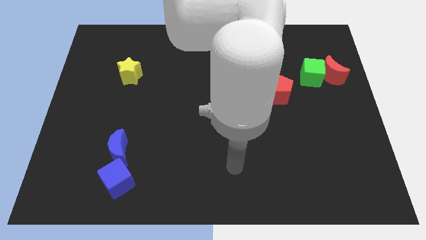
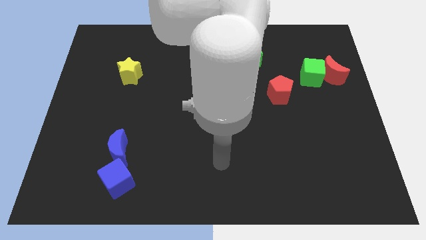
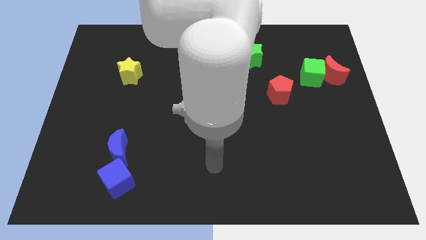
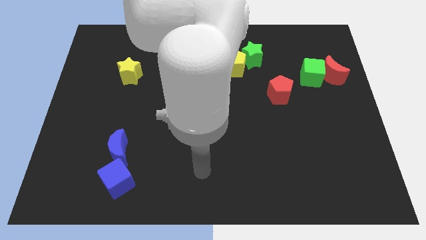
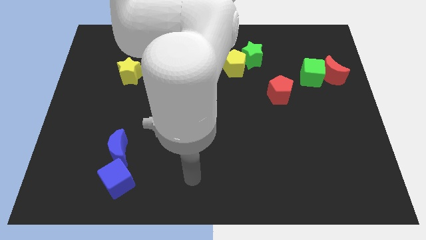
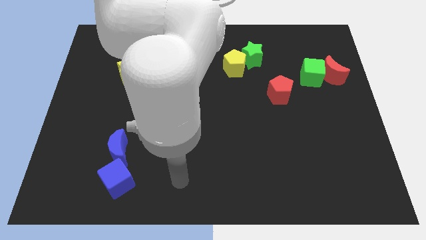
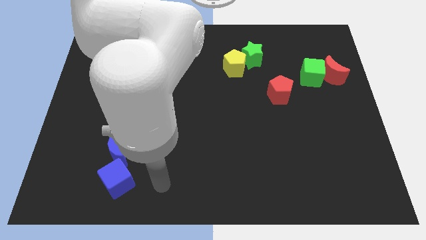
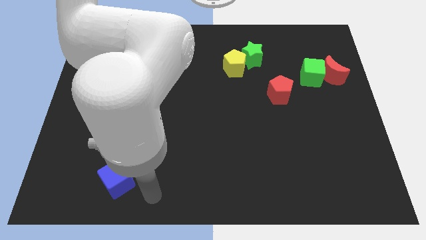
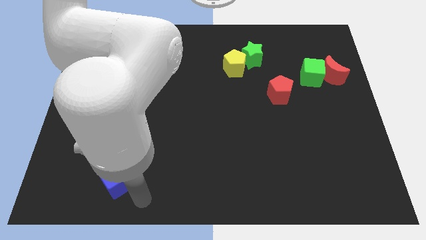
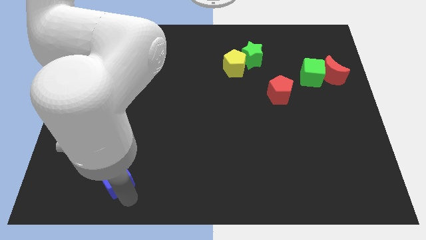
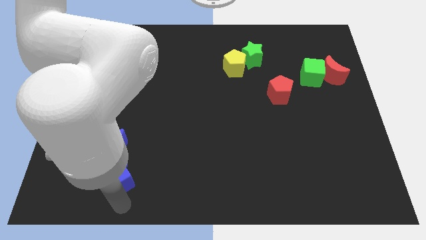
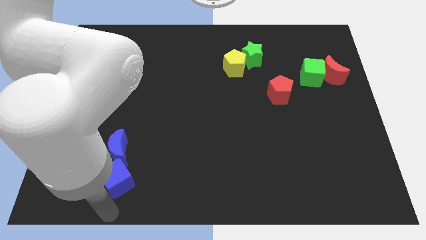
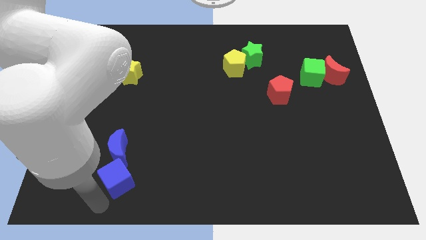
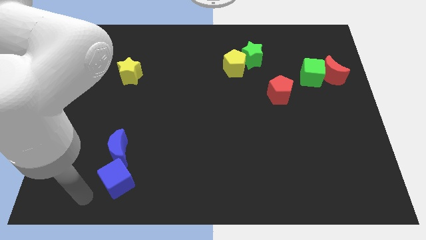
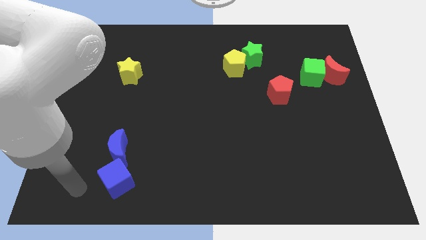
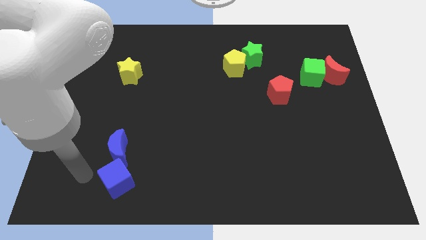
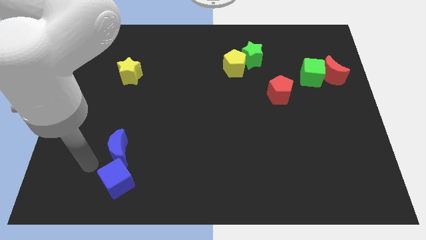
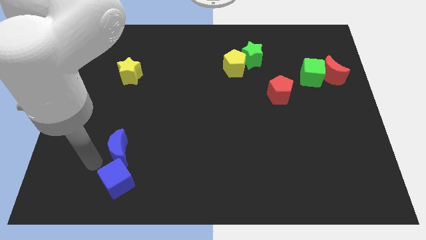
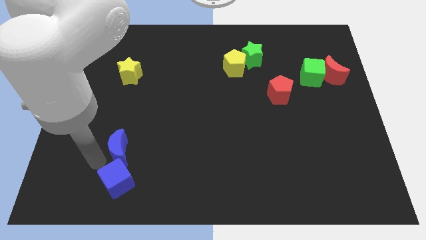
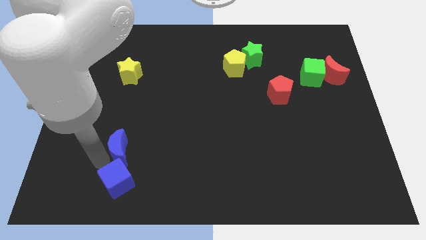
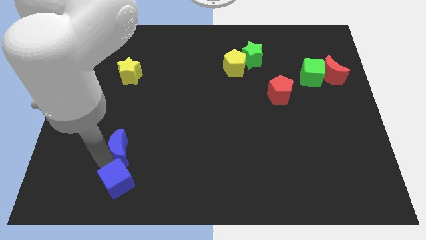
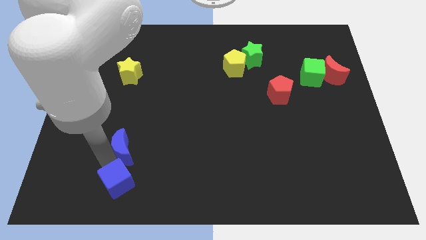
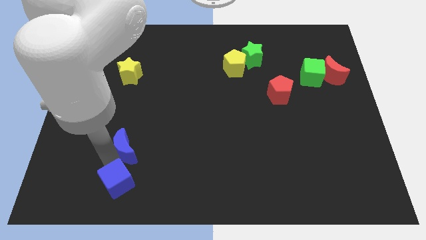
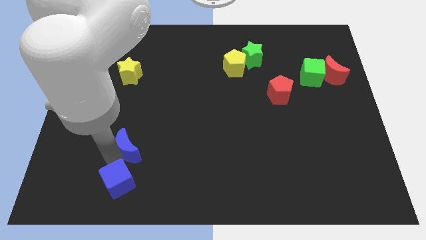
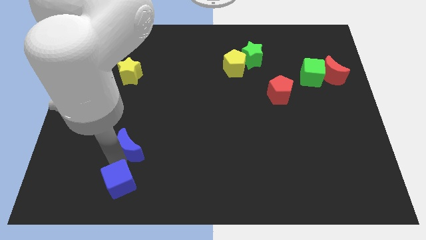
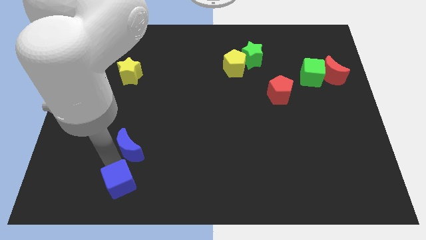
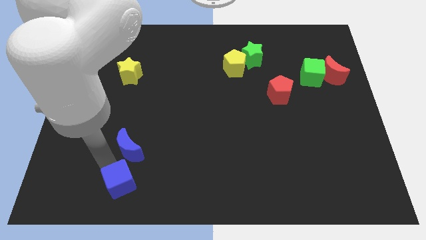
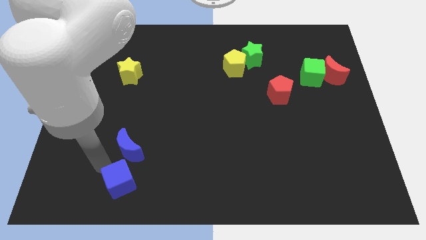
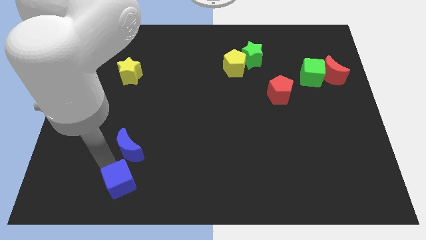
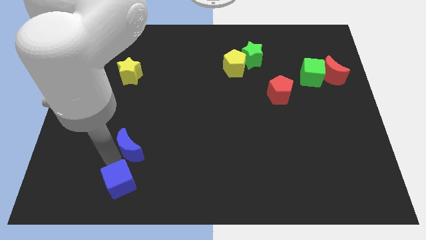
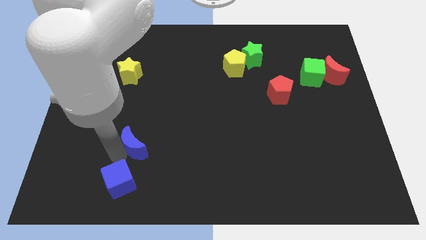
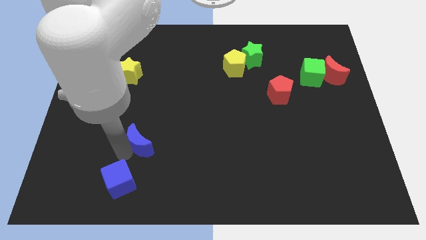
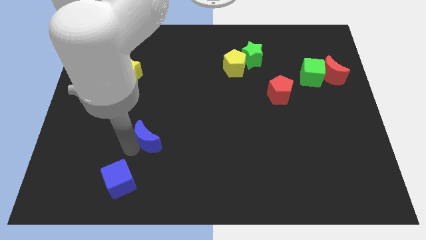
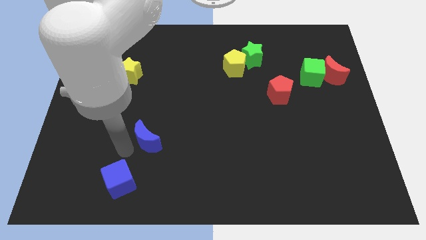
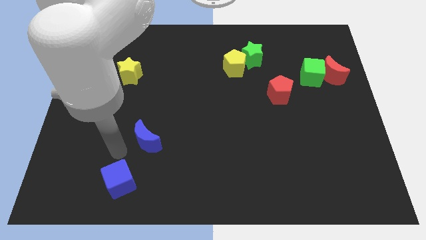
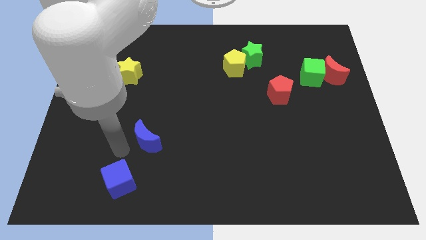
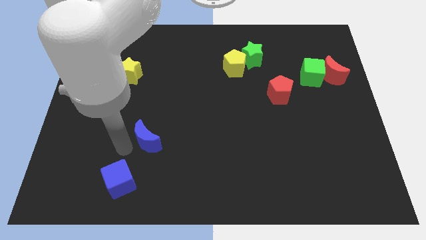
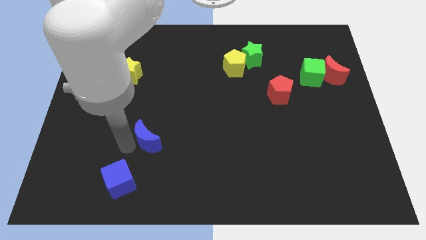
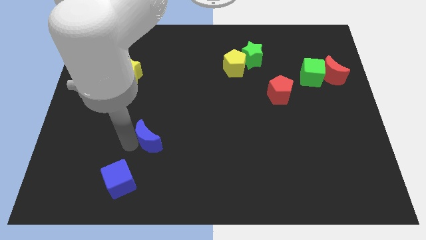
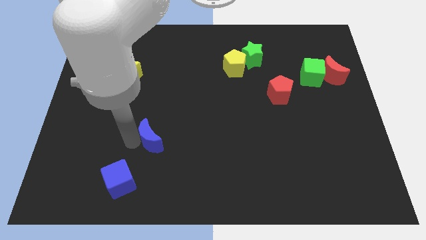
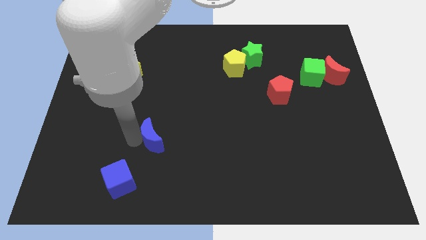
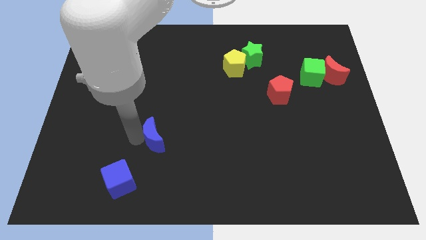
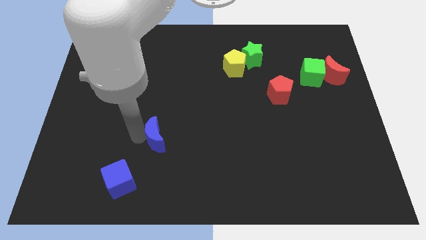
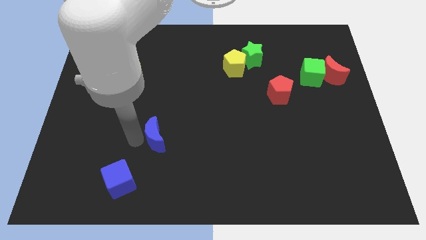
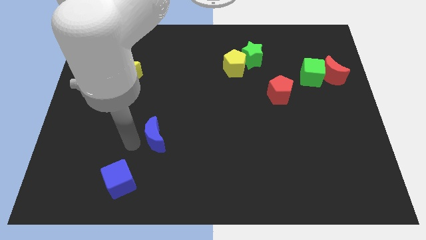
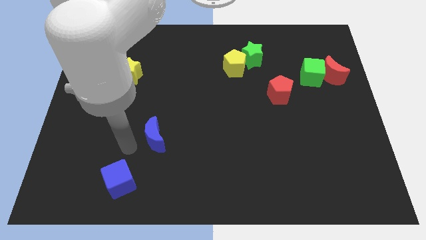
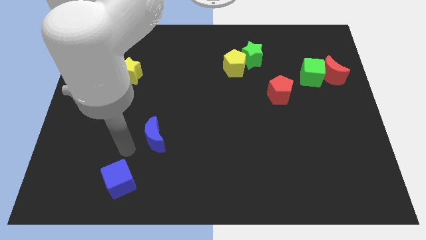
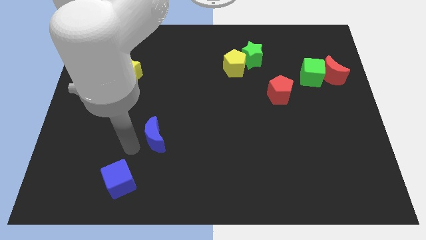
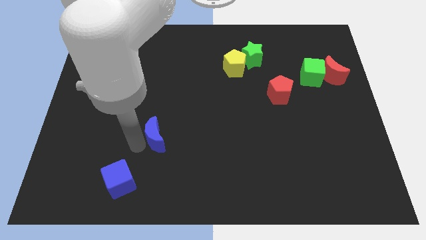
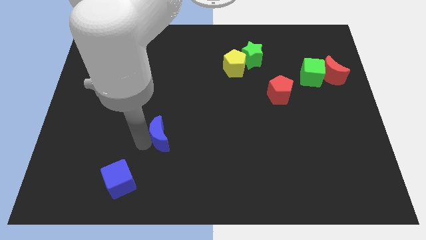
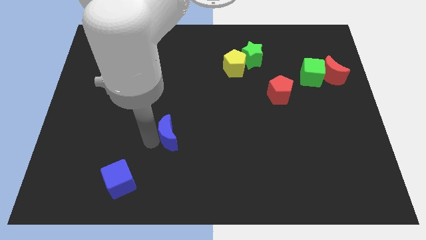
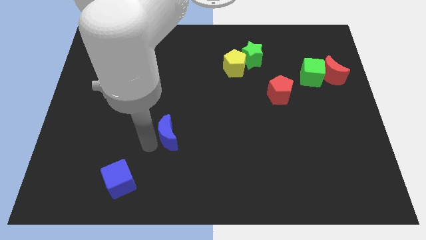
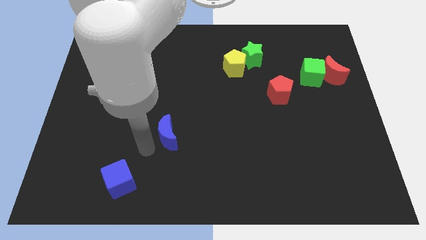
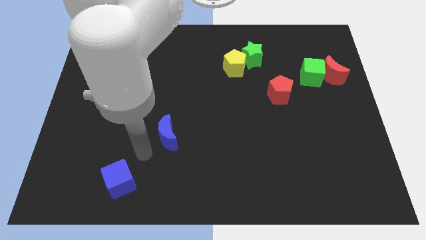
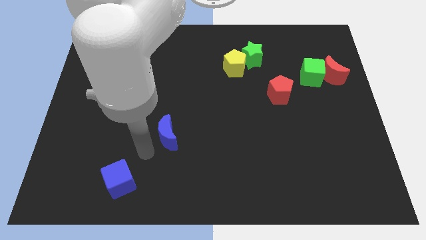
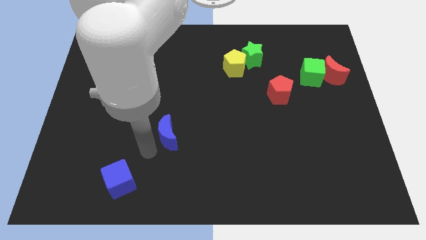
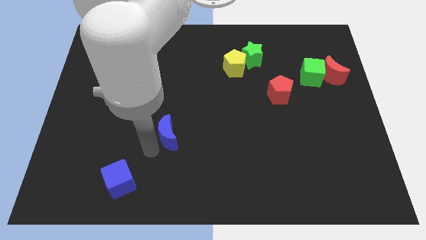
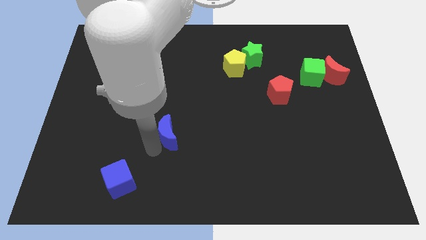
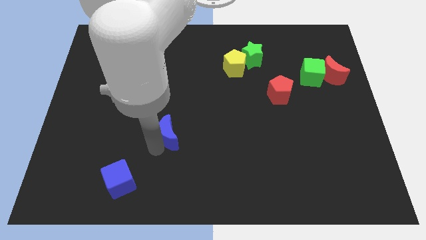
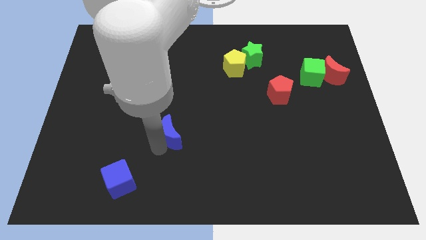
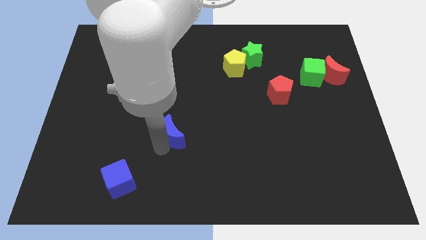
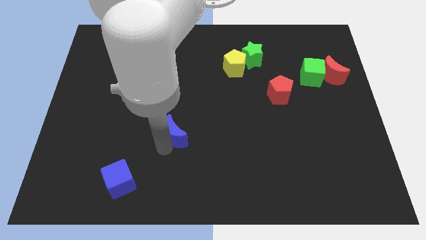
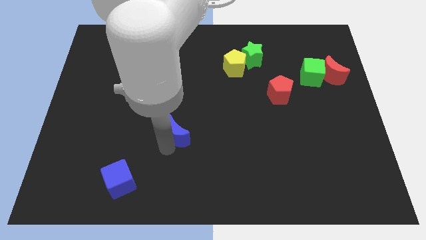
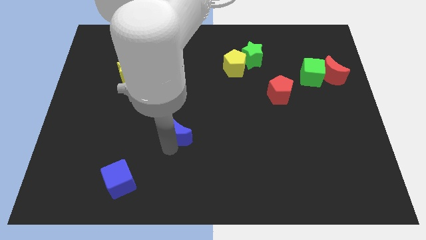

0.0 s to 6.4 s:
slide the blue moon to the center of the board
